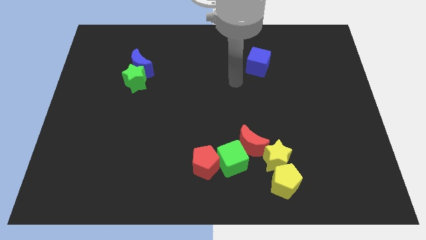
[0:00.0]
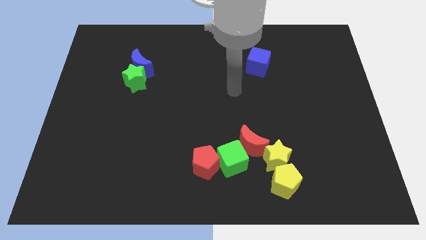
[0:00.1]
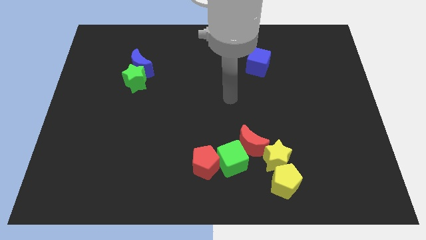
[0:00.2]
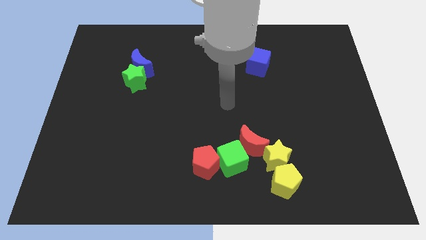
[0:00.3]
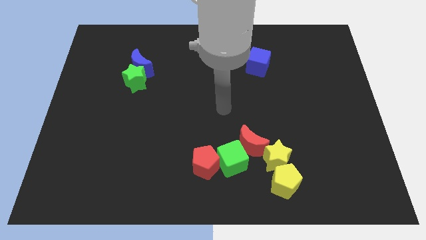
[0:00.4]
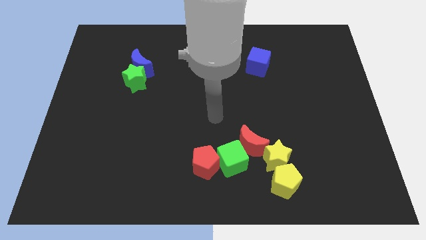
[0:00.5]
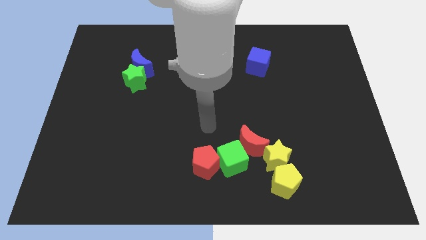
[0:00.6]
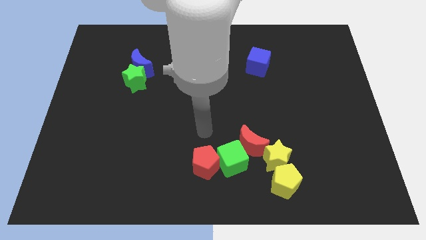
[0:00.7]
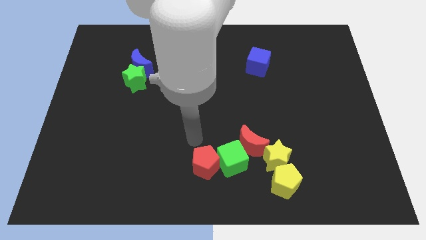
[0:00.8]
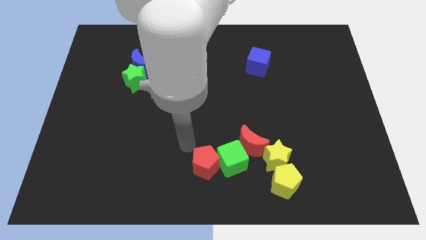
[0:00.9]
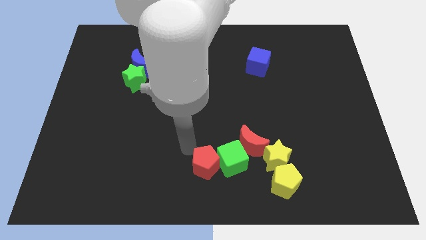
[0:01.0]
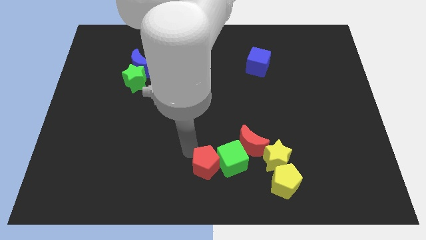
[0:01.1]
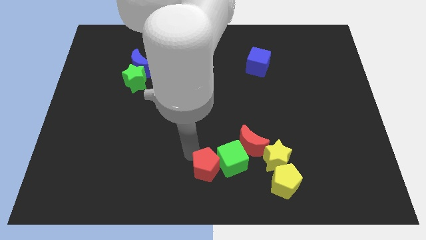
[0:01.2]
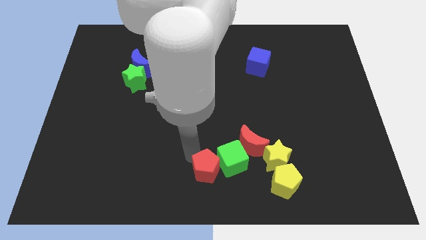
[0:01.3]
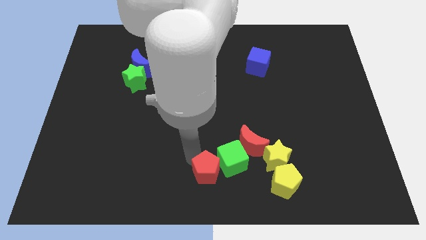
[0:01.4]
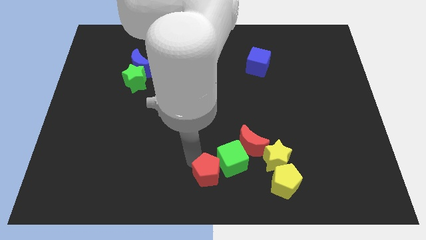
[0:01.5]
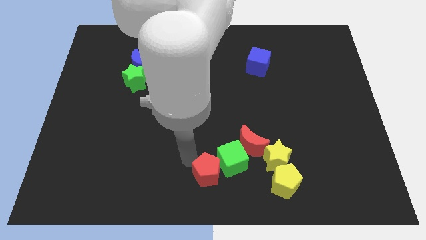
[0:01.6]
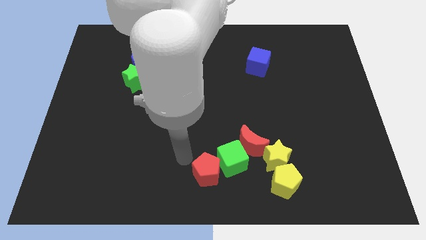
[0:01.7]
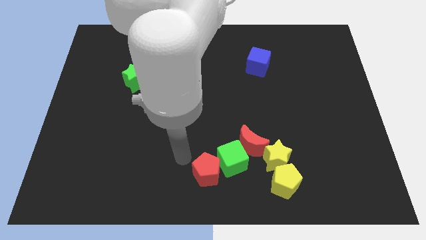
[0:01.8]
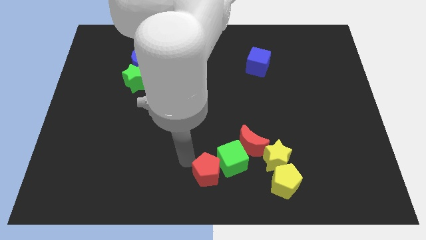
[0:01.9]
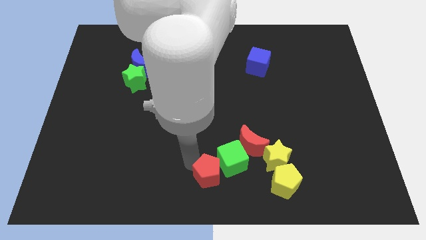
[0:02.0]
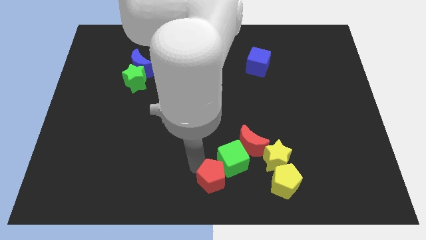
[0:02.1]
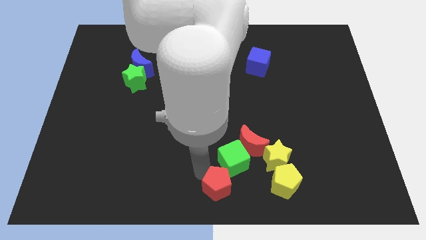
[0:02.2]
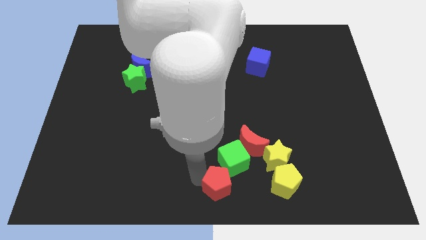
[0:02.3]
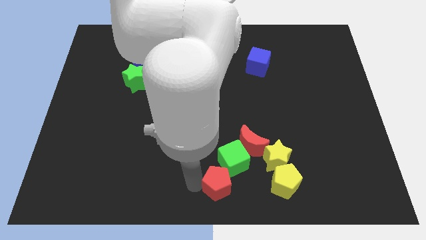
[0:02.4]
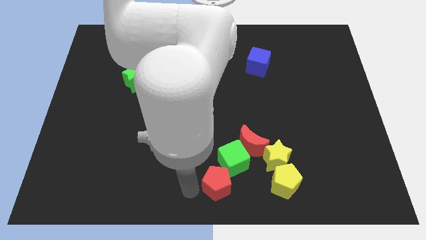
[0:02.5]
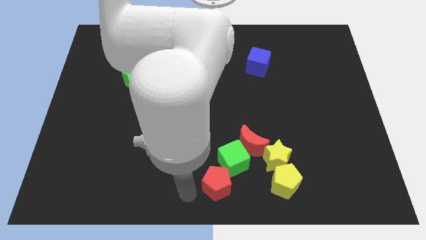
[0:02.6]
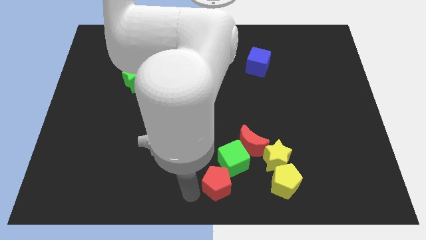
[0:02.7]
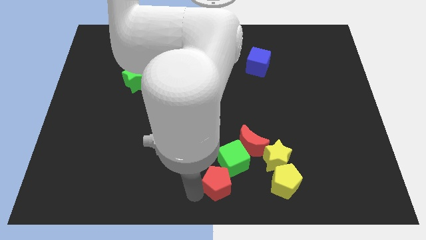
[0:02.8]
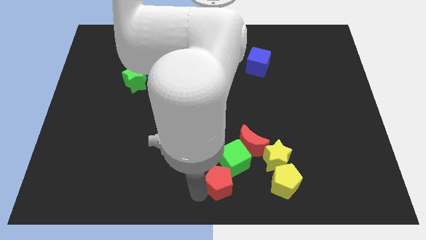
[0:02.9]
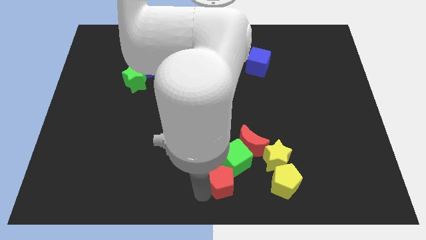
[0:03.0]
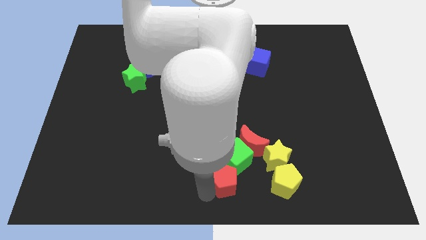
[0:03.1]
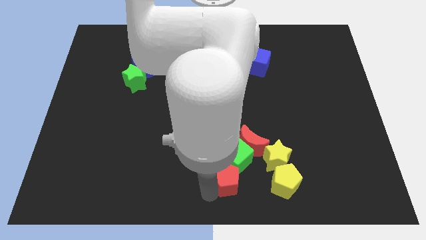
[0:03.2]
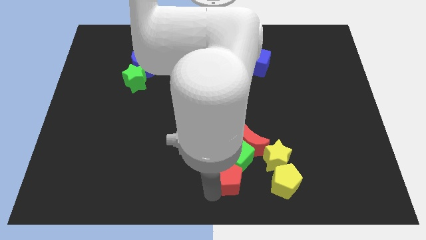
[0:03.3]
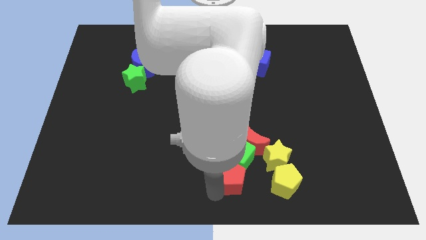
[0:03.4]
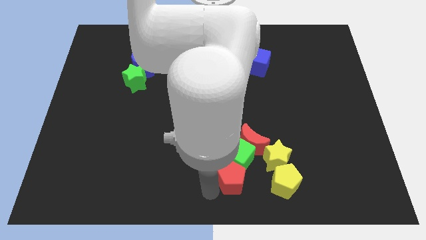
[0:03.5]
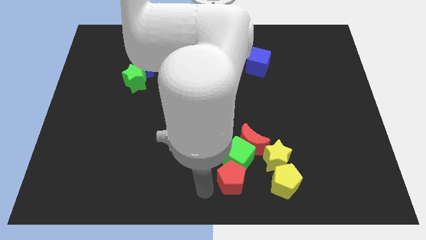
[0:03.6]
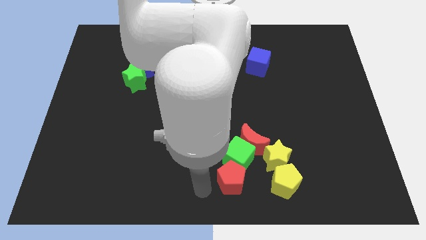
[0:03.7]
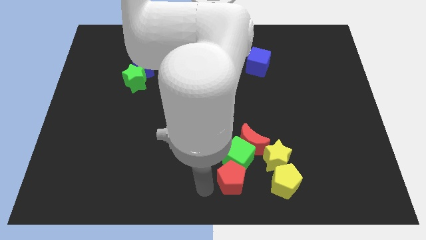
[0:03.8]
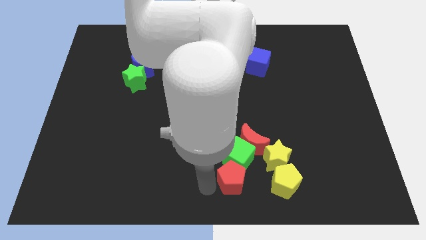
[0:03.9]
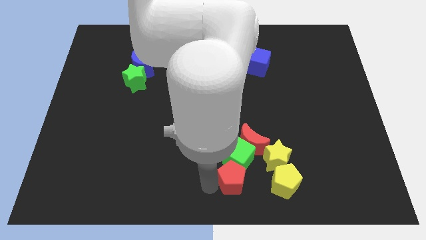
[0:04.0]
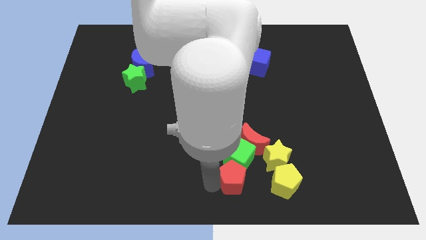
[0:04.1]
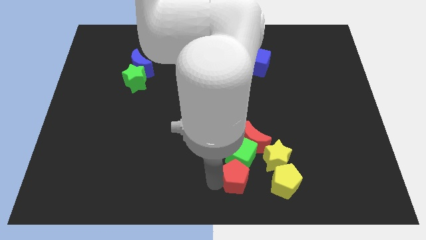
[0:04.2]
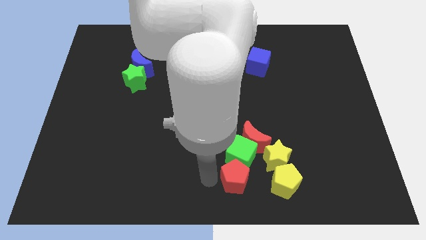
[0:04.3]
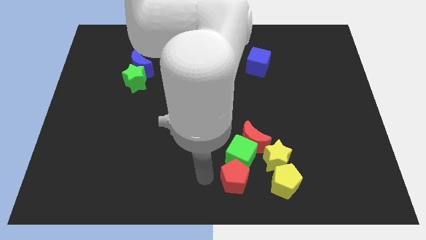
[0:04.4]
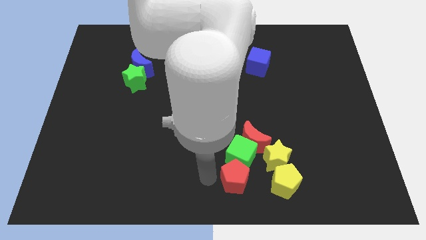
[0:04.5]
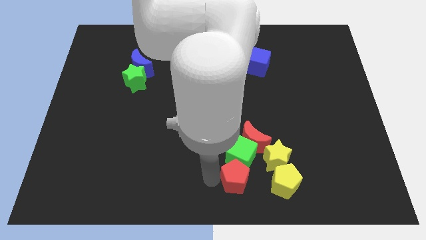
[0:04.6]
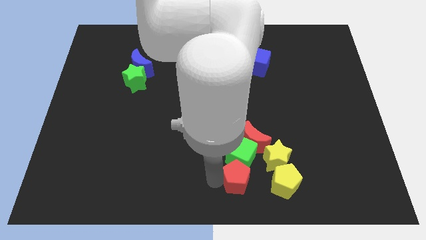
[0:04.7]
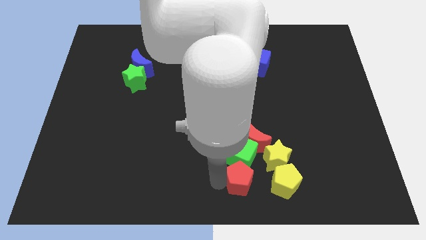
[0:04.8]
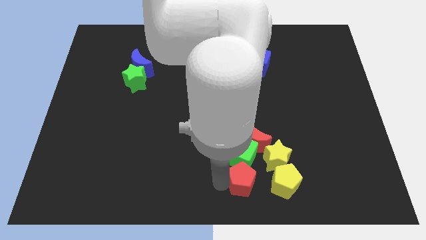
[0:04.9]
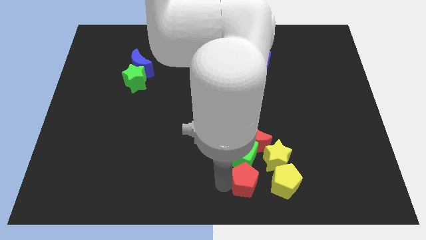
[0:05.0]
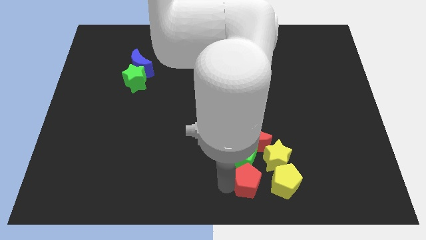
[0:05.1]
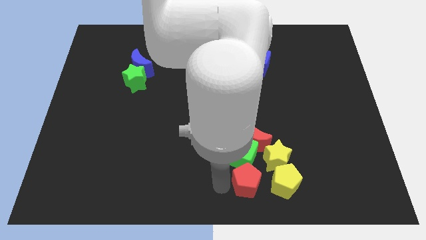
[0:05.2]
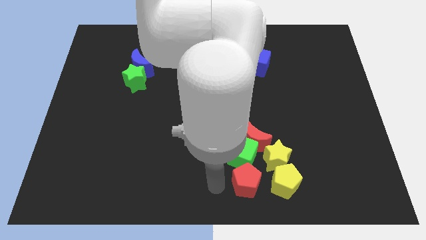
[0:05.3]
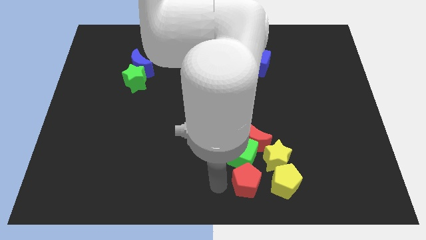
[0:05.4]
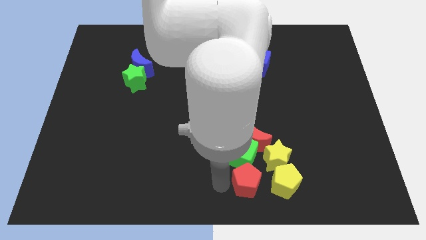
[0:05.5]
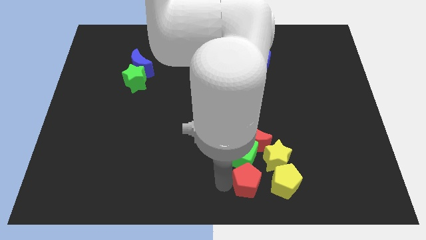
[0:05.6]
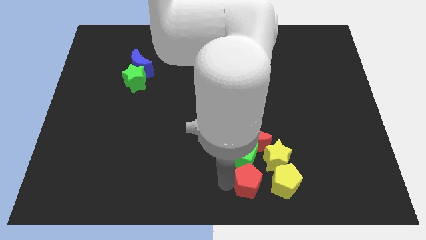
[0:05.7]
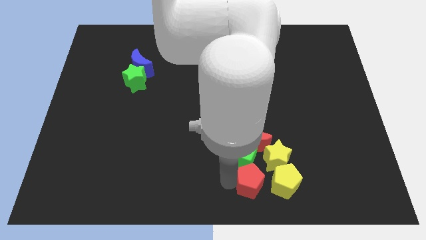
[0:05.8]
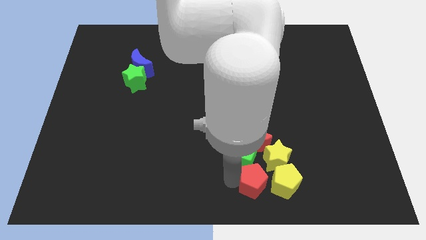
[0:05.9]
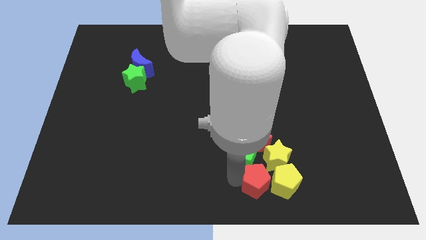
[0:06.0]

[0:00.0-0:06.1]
move the red pentagon close to the yellow pentagon
